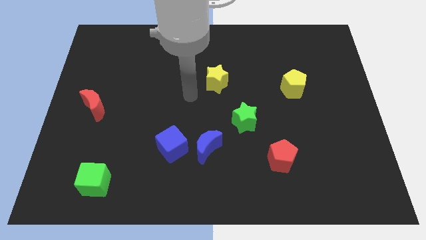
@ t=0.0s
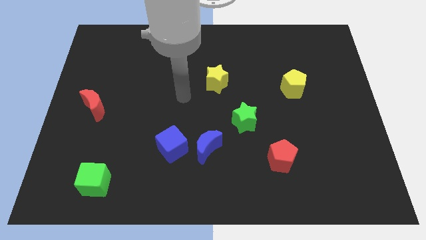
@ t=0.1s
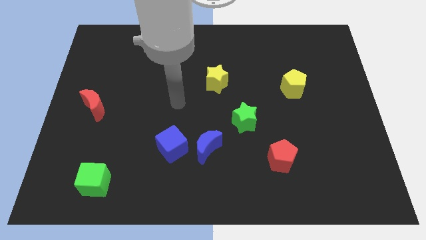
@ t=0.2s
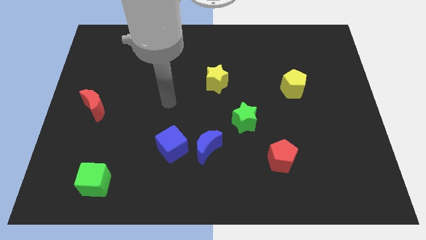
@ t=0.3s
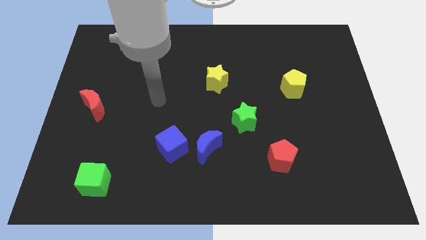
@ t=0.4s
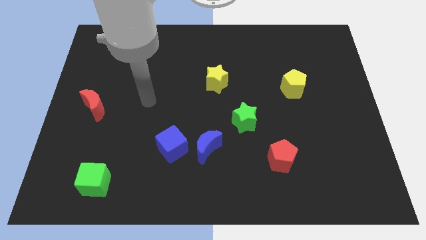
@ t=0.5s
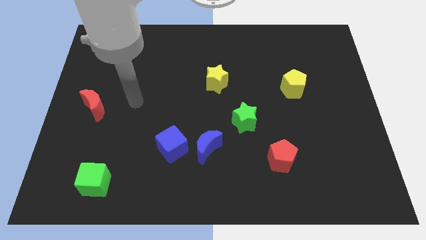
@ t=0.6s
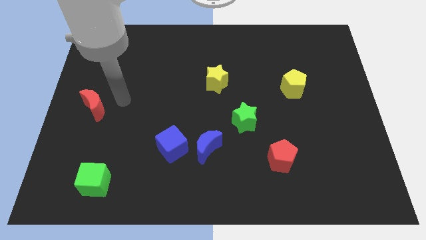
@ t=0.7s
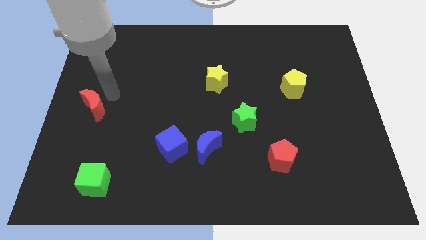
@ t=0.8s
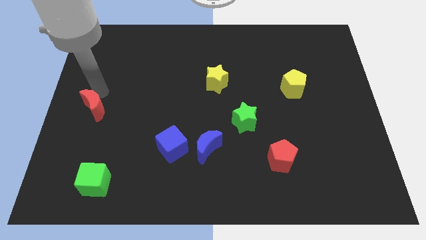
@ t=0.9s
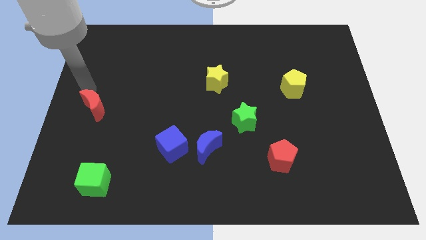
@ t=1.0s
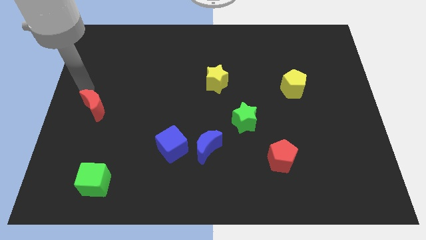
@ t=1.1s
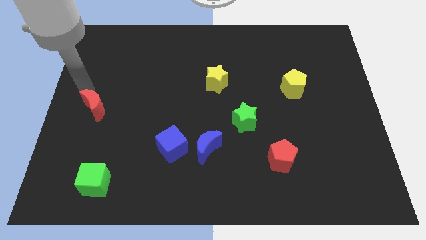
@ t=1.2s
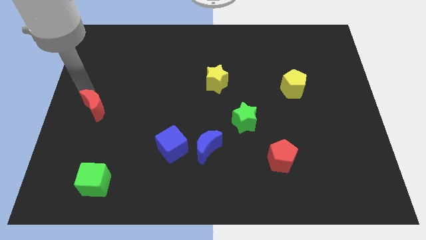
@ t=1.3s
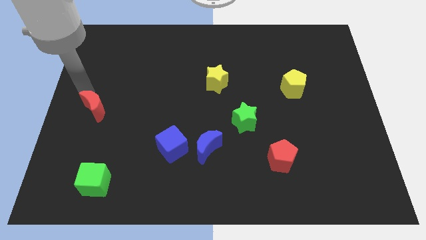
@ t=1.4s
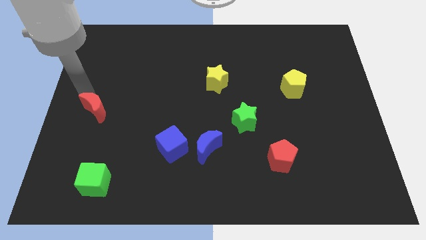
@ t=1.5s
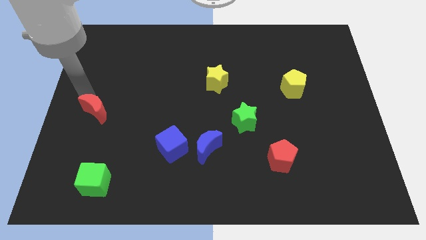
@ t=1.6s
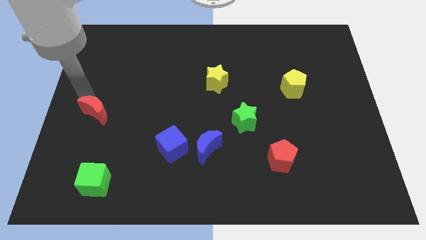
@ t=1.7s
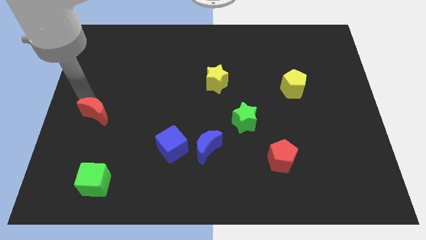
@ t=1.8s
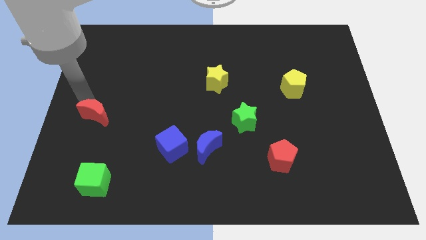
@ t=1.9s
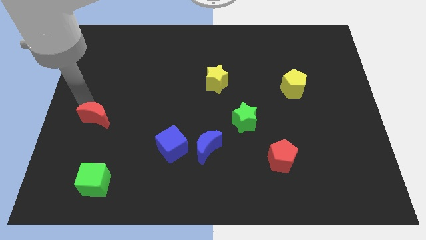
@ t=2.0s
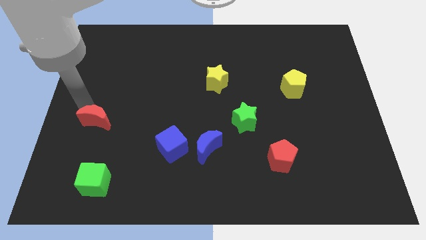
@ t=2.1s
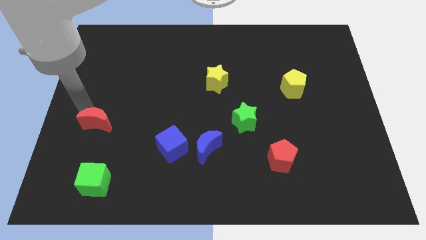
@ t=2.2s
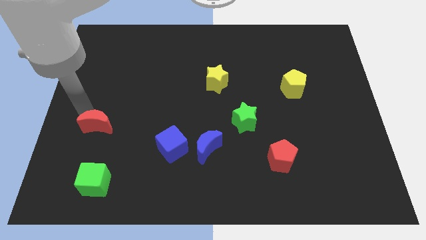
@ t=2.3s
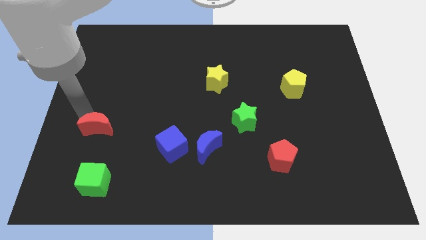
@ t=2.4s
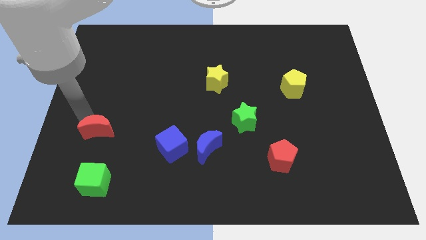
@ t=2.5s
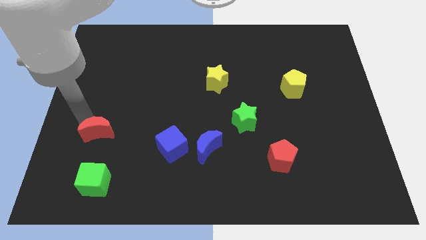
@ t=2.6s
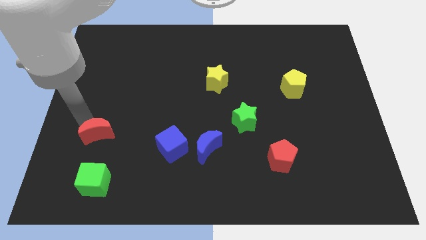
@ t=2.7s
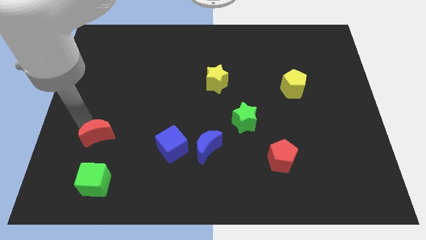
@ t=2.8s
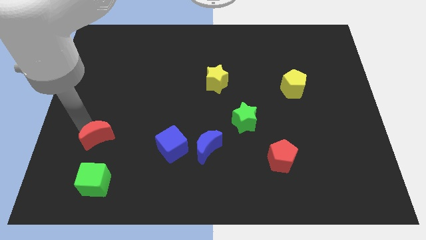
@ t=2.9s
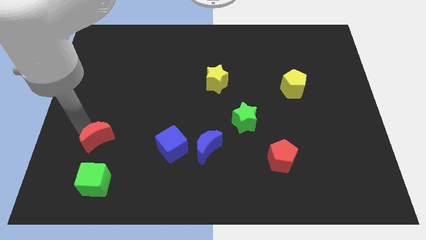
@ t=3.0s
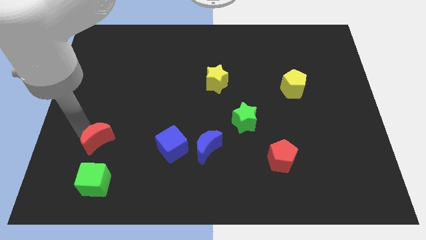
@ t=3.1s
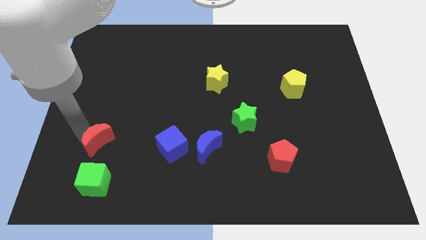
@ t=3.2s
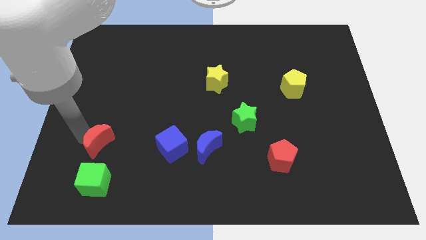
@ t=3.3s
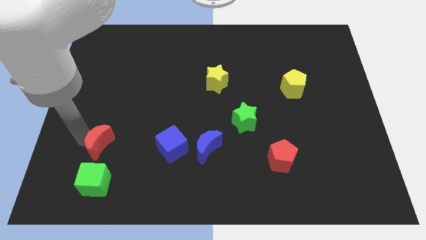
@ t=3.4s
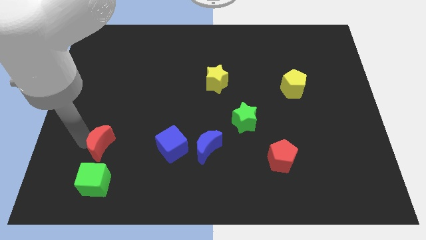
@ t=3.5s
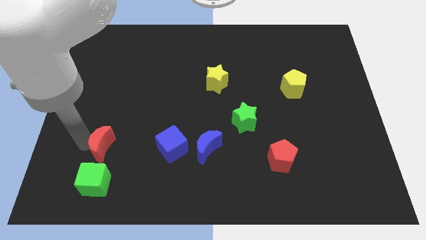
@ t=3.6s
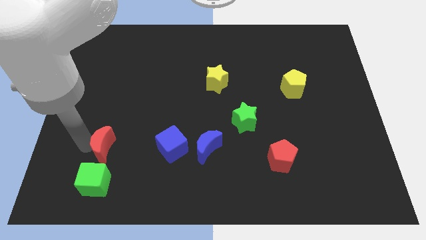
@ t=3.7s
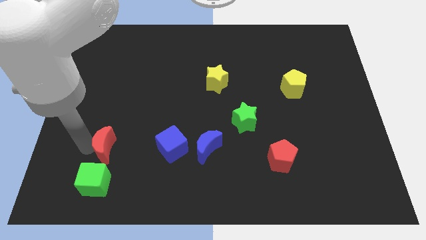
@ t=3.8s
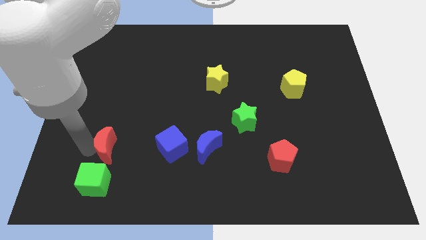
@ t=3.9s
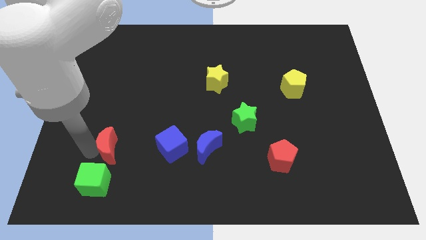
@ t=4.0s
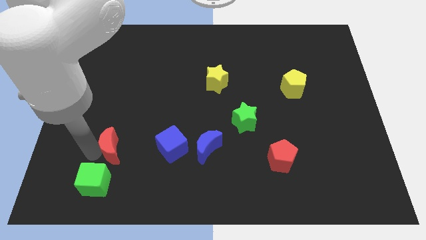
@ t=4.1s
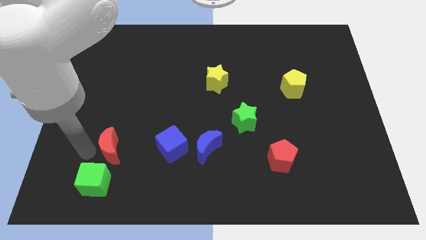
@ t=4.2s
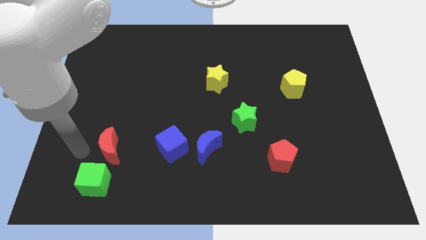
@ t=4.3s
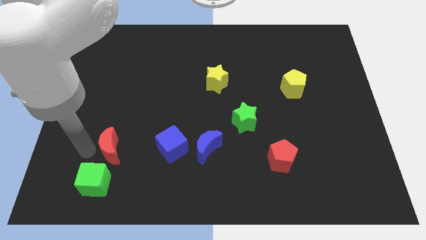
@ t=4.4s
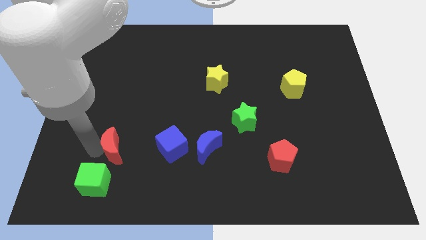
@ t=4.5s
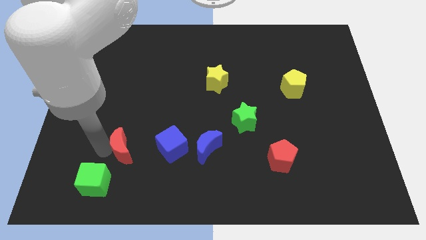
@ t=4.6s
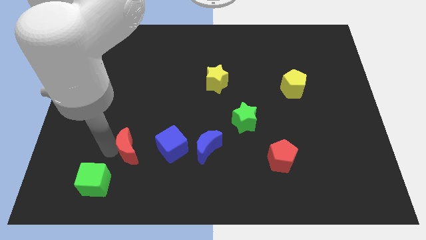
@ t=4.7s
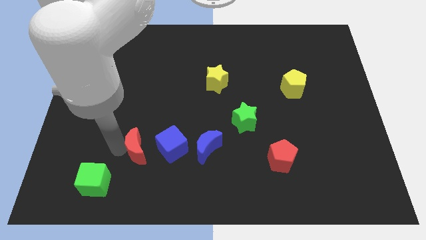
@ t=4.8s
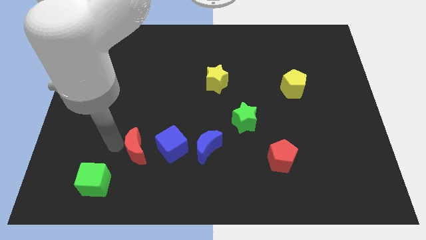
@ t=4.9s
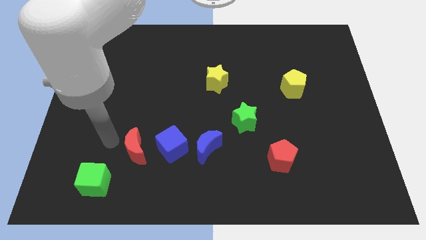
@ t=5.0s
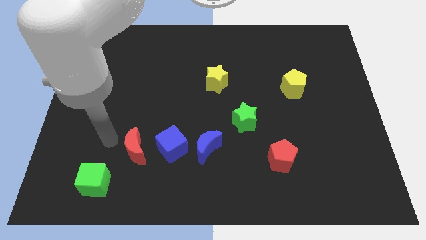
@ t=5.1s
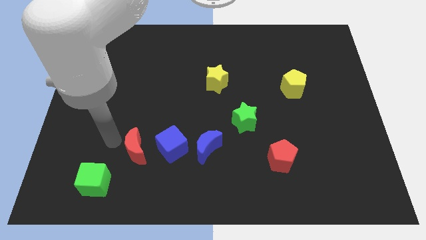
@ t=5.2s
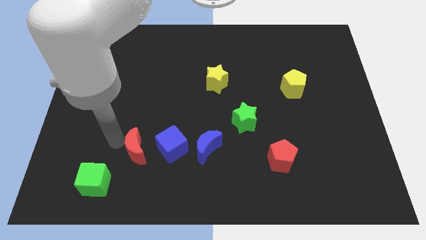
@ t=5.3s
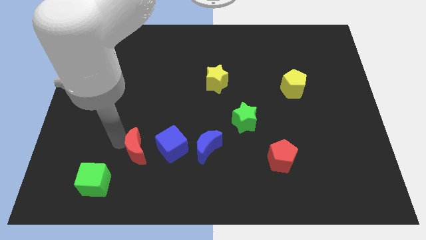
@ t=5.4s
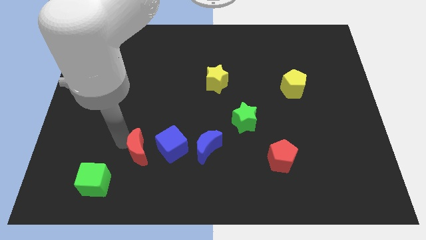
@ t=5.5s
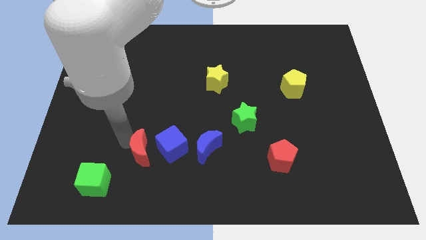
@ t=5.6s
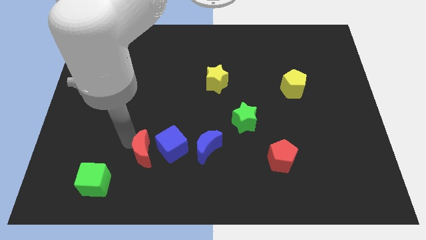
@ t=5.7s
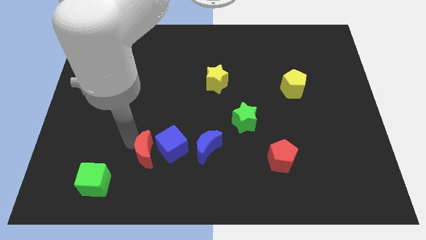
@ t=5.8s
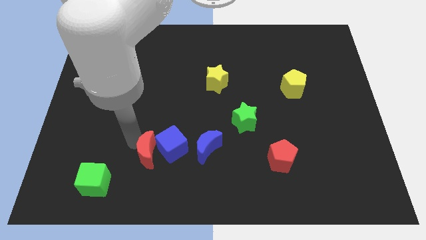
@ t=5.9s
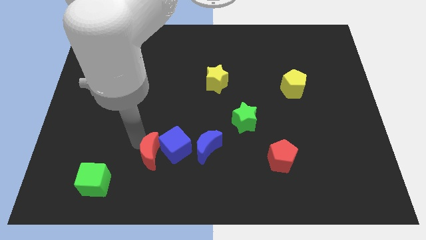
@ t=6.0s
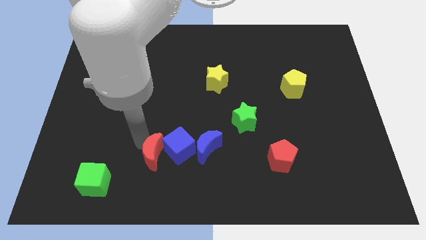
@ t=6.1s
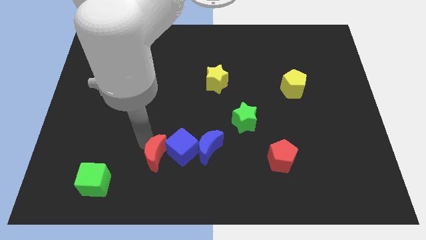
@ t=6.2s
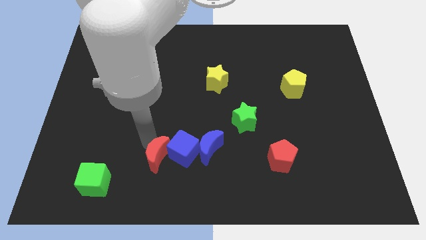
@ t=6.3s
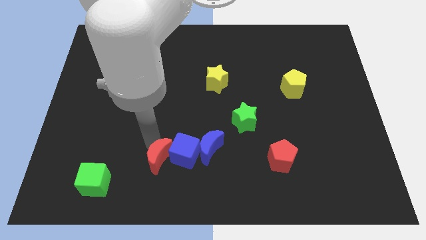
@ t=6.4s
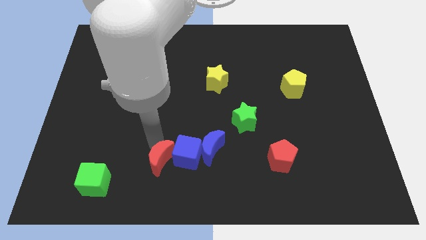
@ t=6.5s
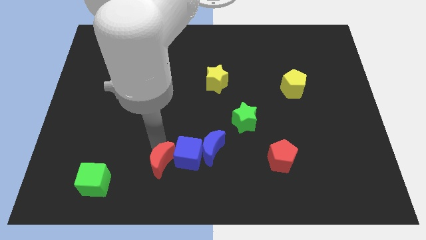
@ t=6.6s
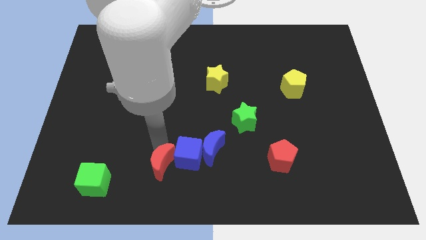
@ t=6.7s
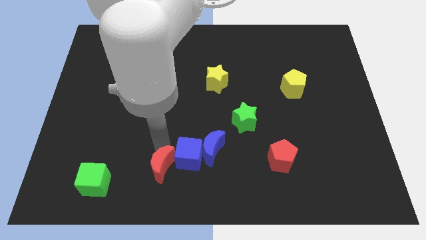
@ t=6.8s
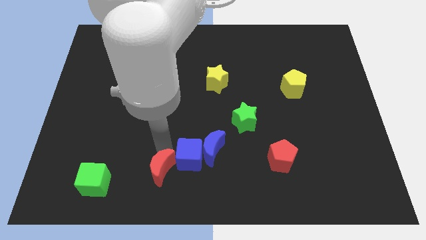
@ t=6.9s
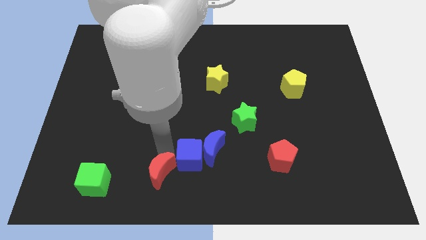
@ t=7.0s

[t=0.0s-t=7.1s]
push the red moon to the bottom

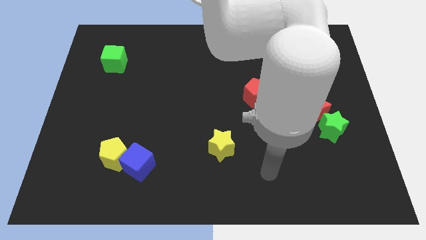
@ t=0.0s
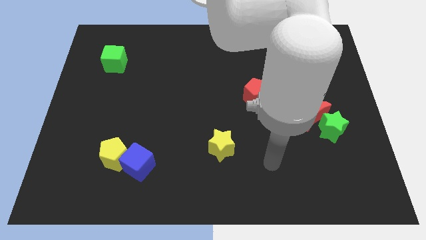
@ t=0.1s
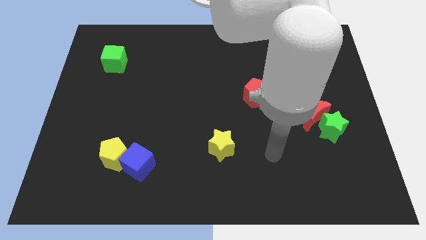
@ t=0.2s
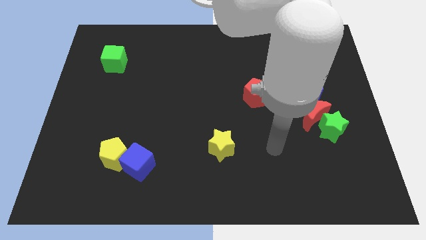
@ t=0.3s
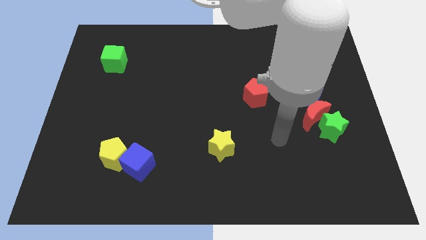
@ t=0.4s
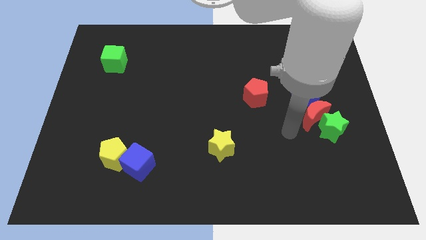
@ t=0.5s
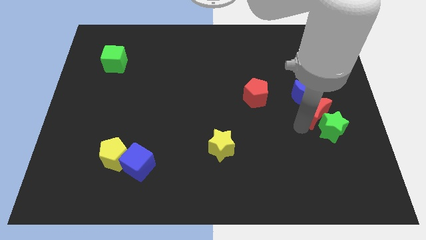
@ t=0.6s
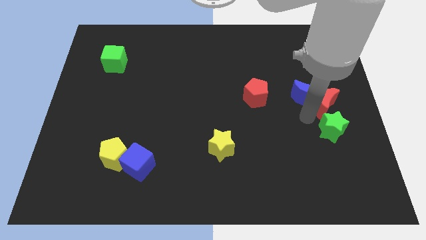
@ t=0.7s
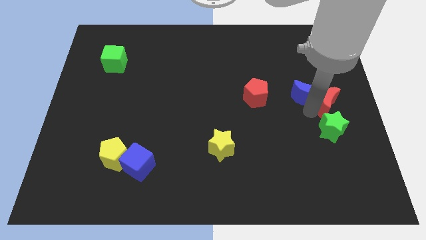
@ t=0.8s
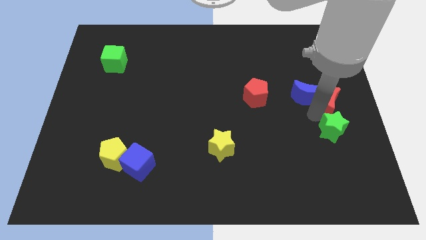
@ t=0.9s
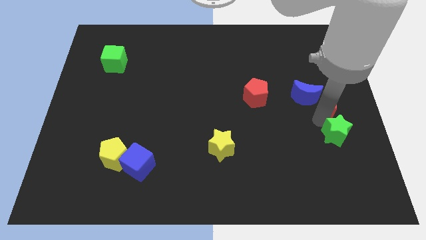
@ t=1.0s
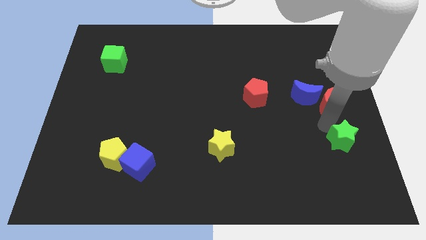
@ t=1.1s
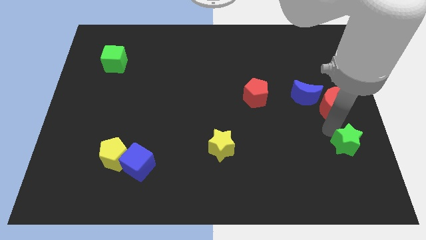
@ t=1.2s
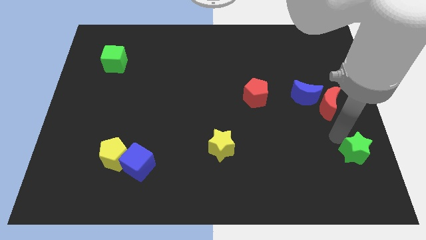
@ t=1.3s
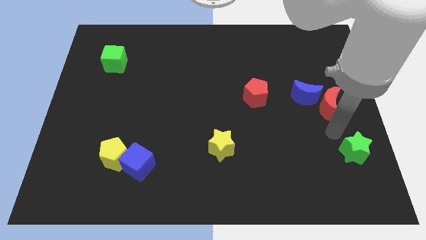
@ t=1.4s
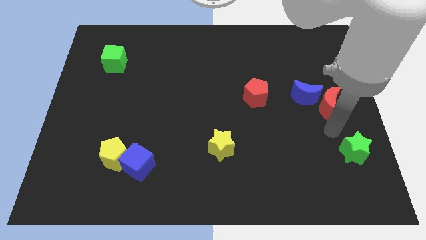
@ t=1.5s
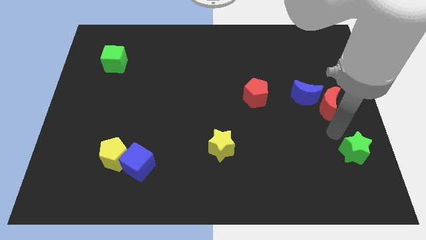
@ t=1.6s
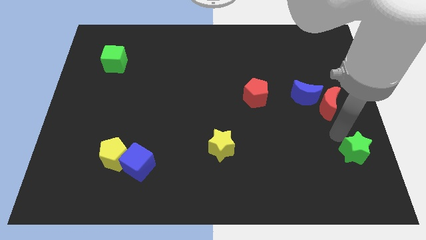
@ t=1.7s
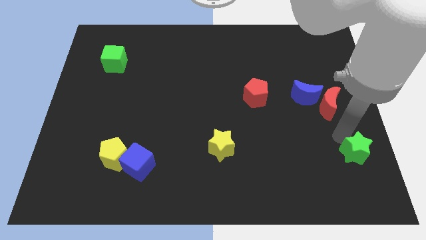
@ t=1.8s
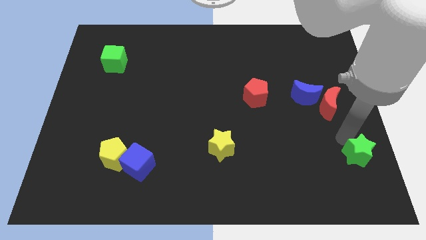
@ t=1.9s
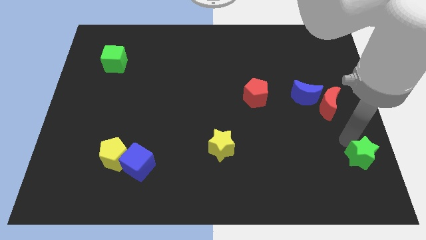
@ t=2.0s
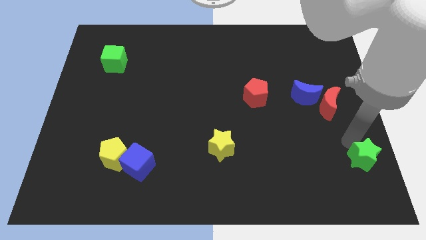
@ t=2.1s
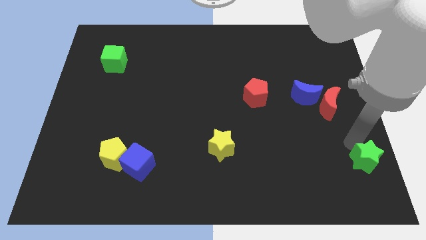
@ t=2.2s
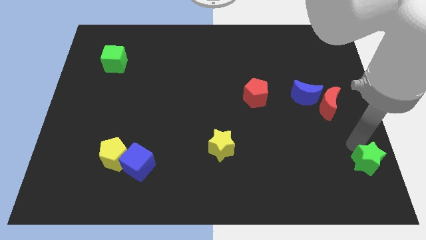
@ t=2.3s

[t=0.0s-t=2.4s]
slide the green star to the lower right corner
